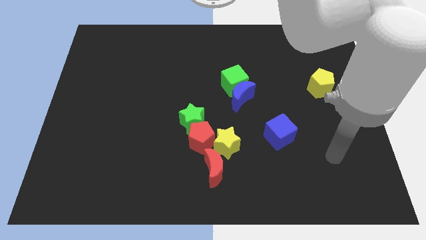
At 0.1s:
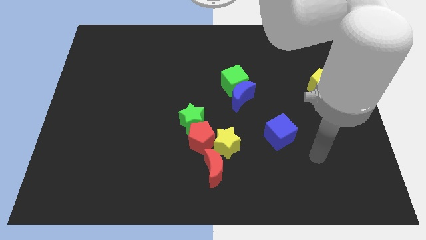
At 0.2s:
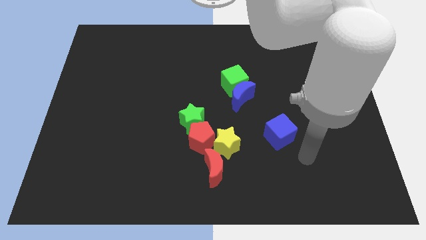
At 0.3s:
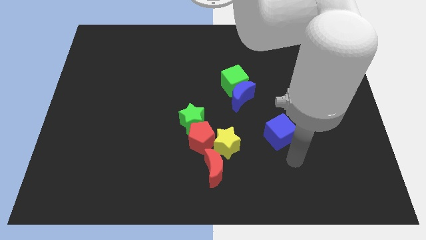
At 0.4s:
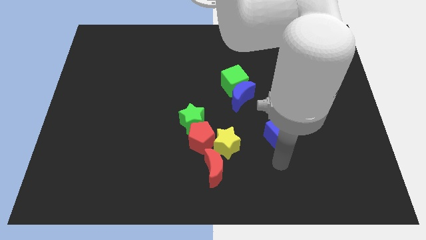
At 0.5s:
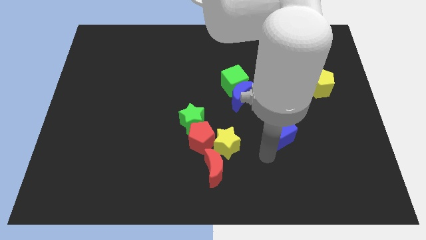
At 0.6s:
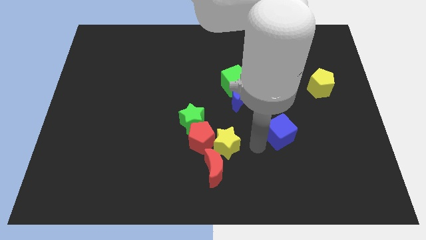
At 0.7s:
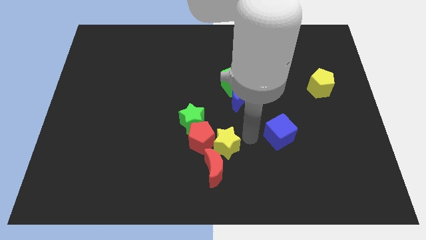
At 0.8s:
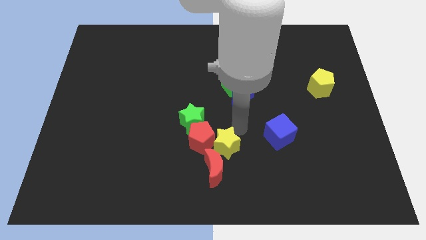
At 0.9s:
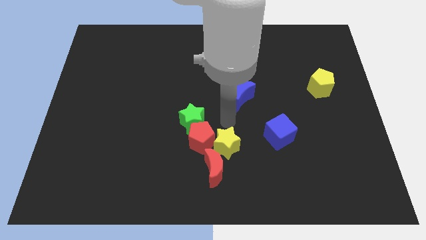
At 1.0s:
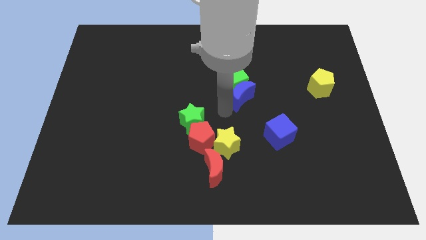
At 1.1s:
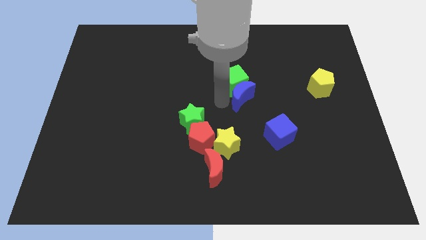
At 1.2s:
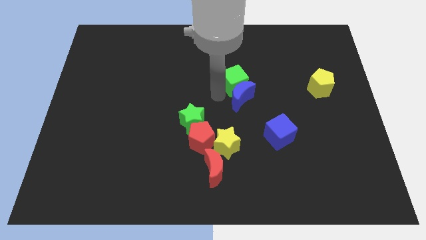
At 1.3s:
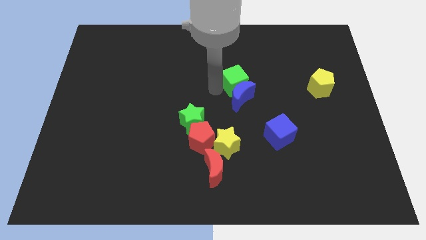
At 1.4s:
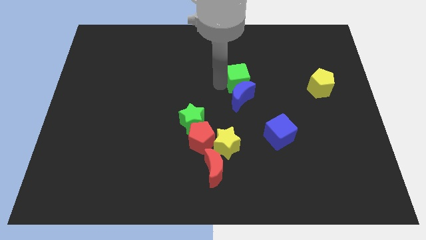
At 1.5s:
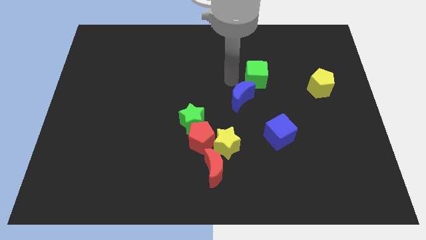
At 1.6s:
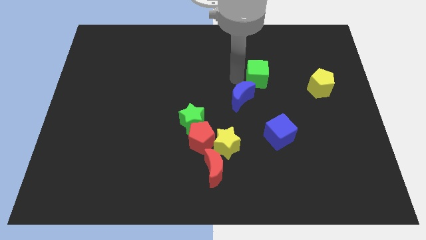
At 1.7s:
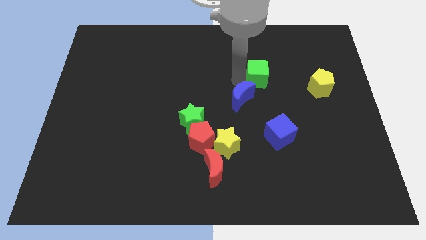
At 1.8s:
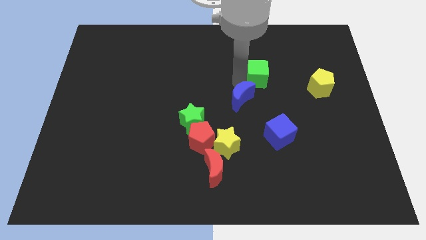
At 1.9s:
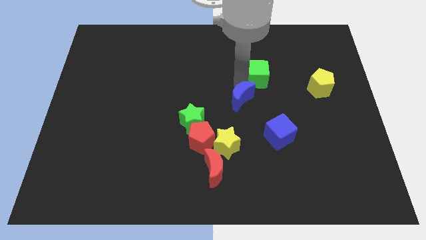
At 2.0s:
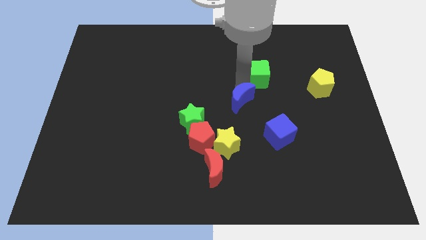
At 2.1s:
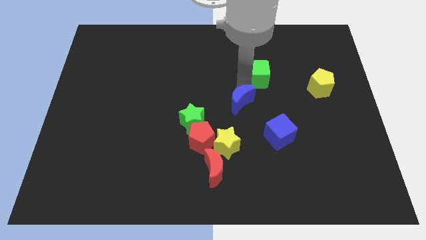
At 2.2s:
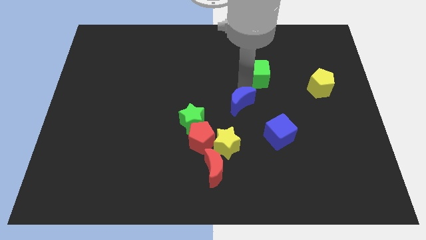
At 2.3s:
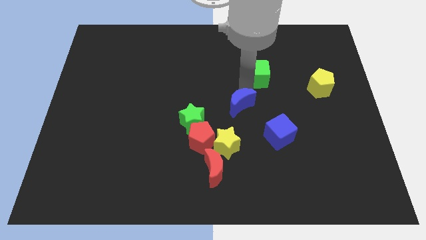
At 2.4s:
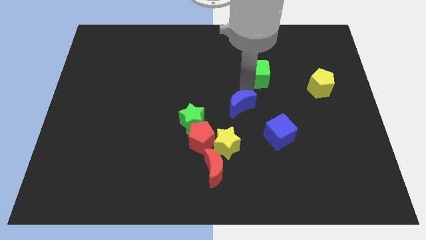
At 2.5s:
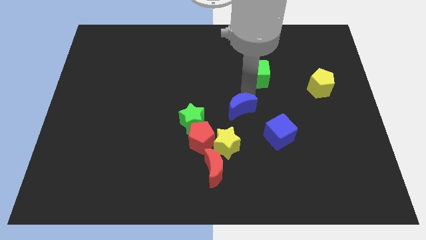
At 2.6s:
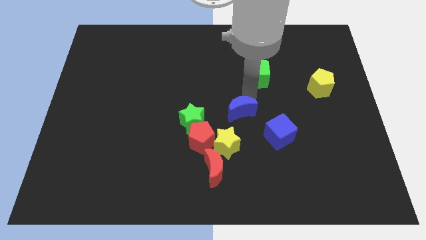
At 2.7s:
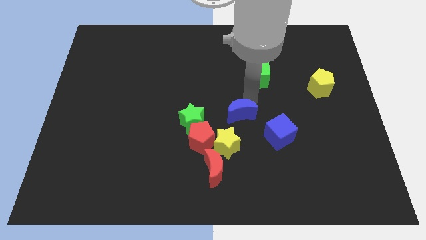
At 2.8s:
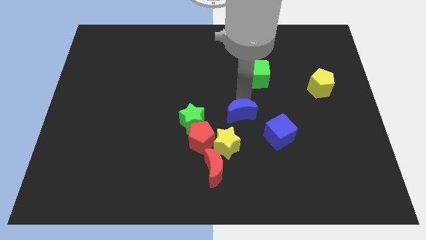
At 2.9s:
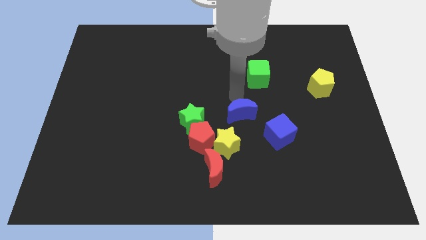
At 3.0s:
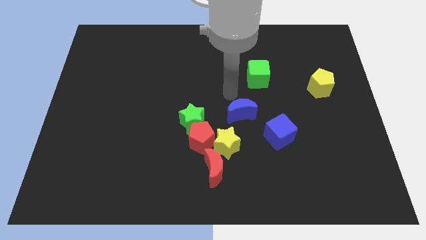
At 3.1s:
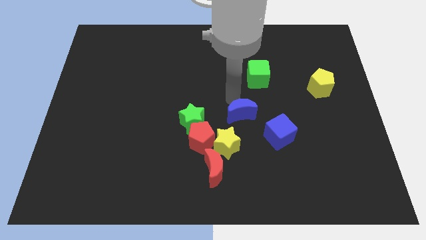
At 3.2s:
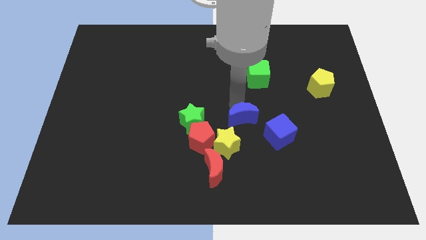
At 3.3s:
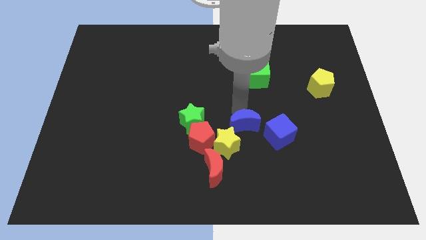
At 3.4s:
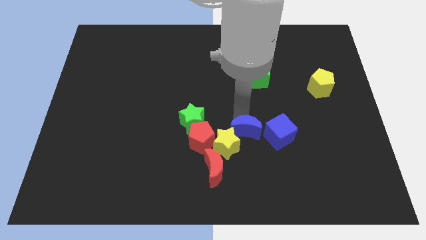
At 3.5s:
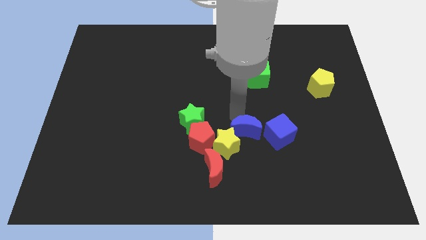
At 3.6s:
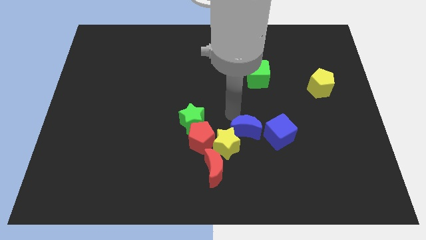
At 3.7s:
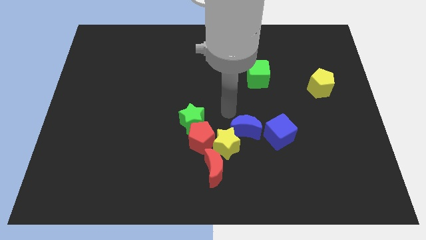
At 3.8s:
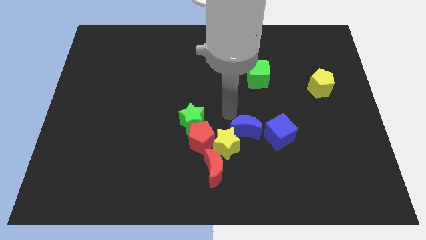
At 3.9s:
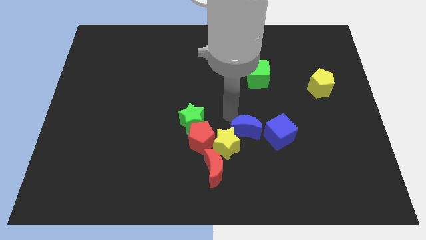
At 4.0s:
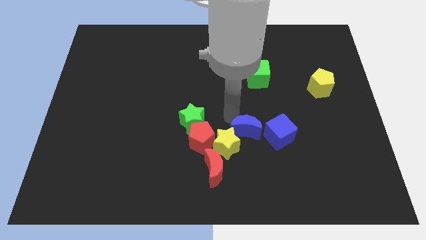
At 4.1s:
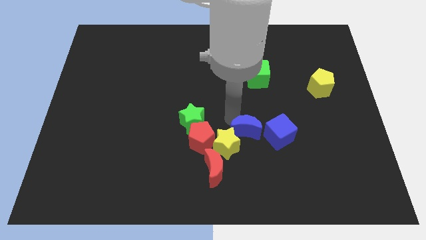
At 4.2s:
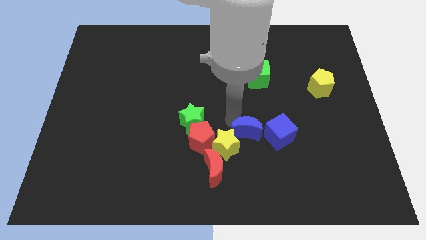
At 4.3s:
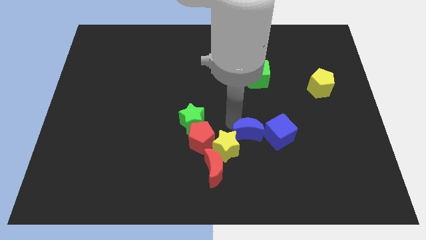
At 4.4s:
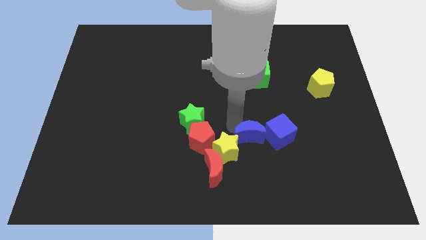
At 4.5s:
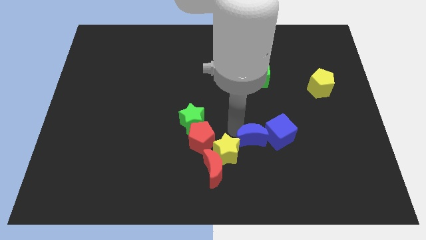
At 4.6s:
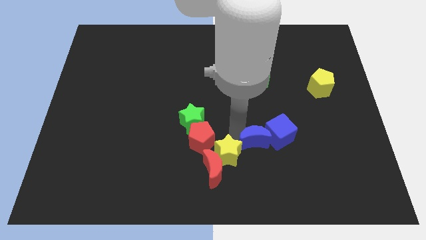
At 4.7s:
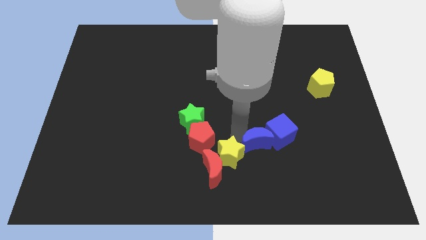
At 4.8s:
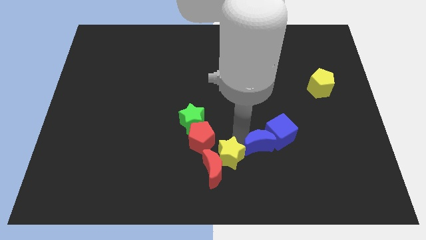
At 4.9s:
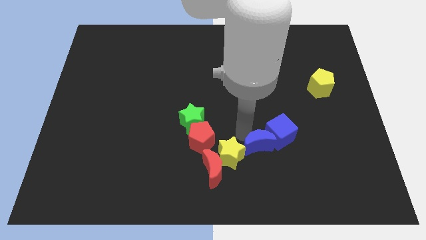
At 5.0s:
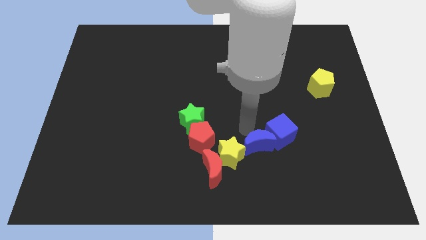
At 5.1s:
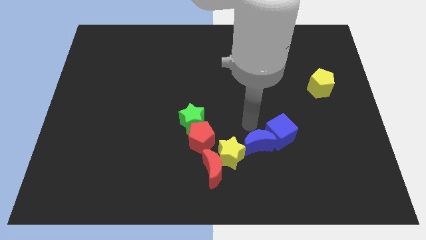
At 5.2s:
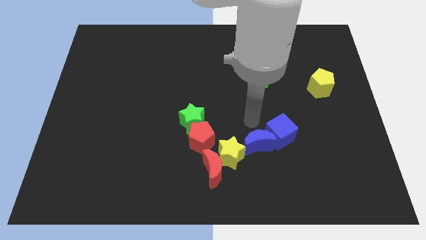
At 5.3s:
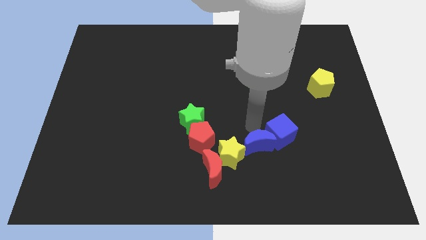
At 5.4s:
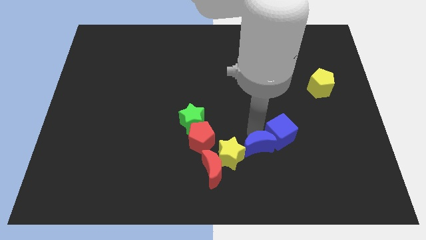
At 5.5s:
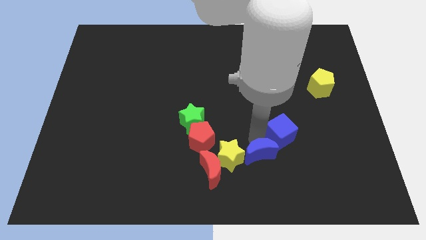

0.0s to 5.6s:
put the blue moon right of the red moon

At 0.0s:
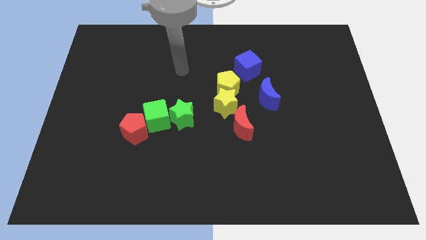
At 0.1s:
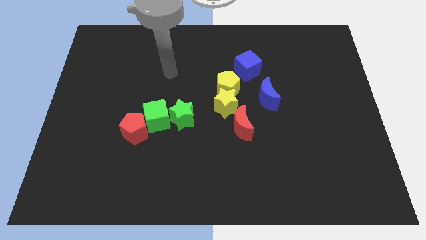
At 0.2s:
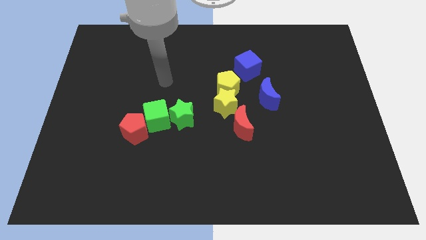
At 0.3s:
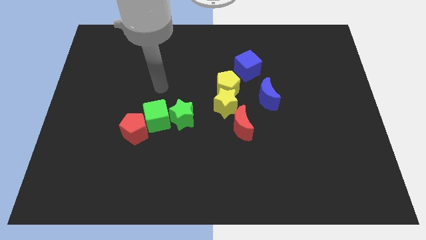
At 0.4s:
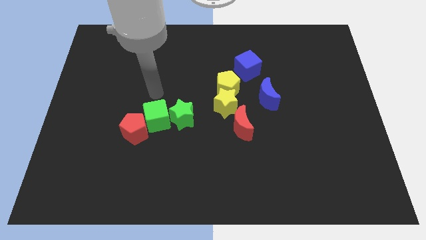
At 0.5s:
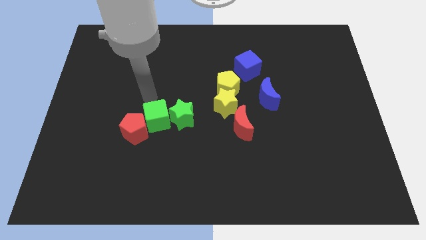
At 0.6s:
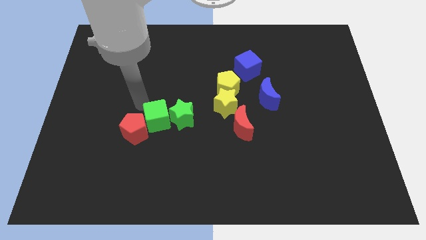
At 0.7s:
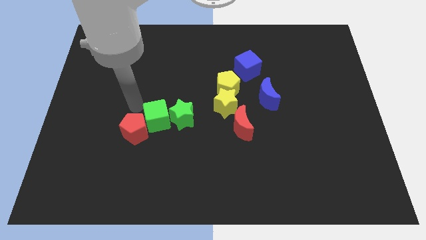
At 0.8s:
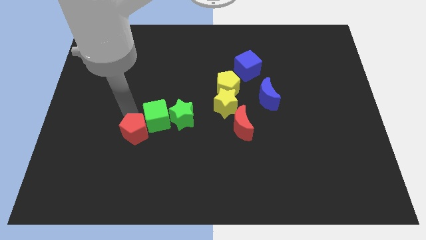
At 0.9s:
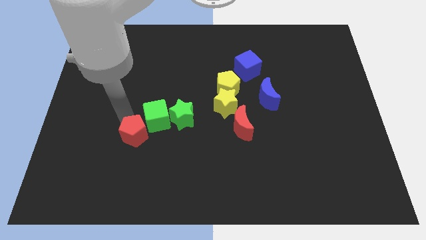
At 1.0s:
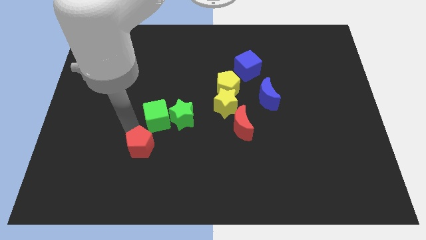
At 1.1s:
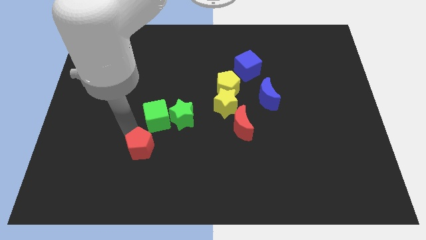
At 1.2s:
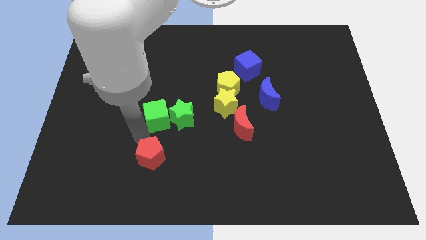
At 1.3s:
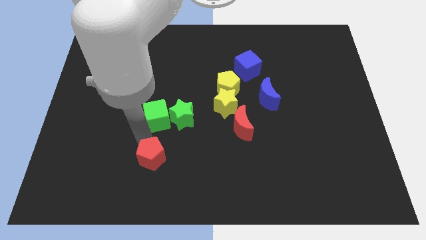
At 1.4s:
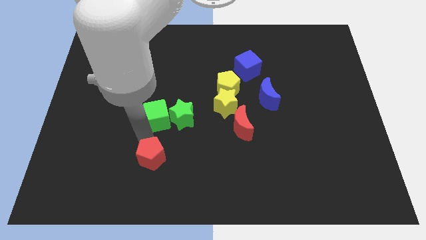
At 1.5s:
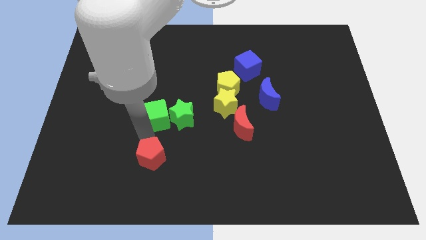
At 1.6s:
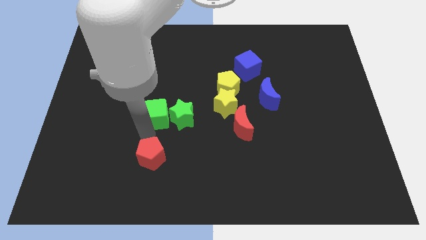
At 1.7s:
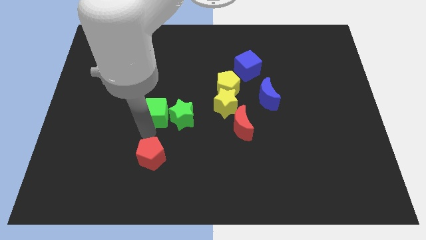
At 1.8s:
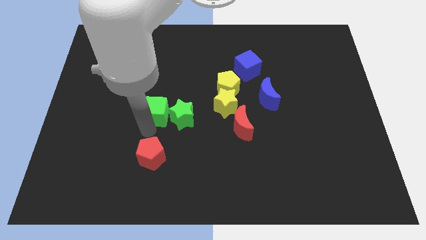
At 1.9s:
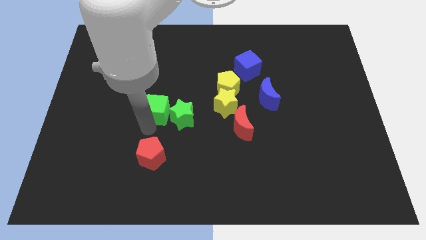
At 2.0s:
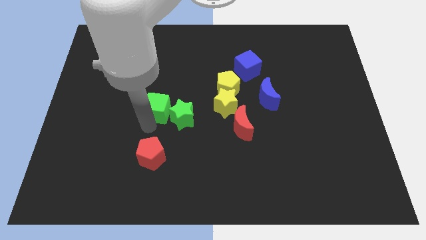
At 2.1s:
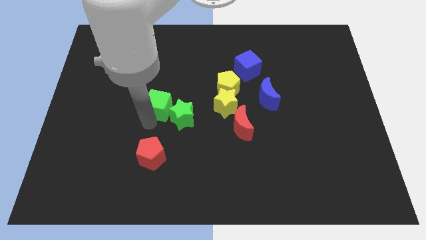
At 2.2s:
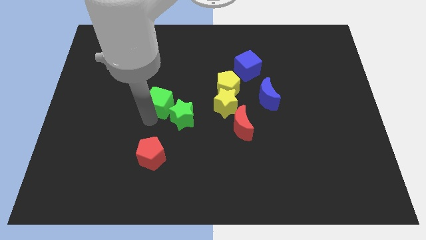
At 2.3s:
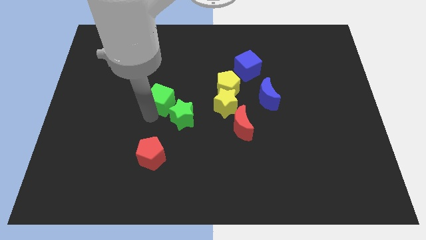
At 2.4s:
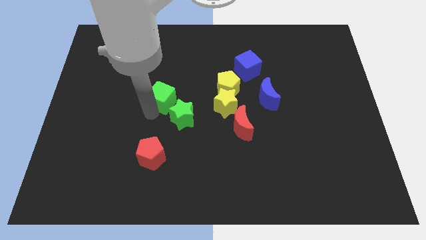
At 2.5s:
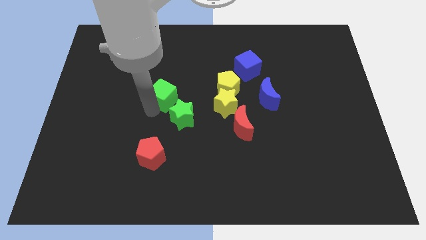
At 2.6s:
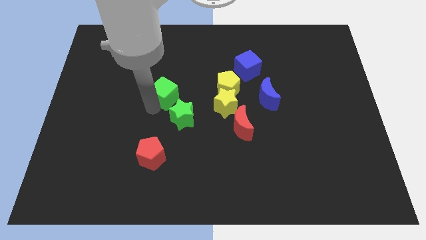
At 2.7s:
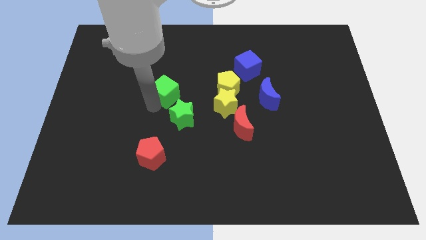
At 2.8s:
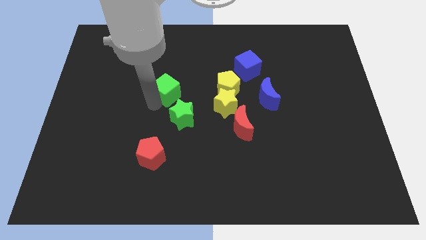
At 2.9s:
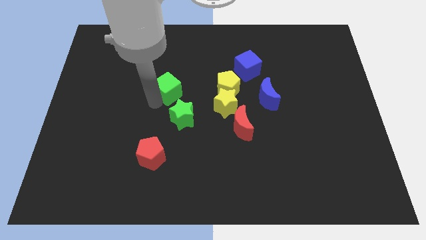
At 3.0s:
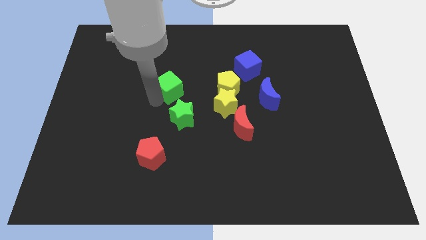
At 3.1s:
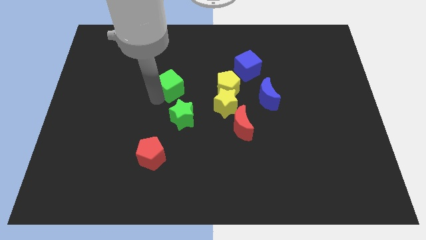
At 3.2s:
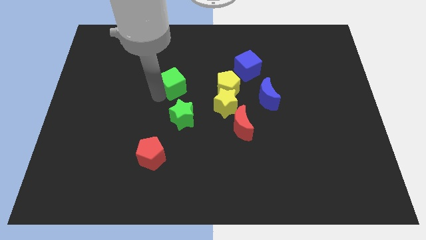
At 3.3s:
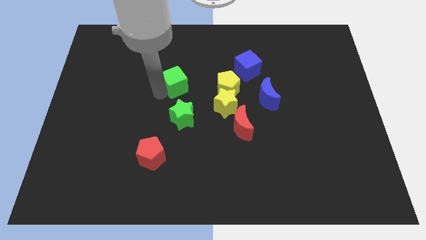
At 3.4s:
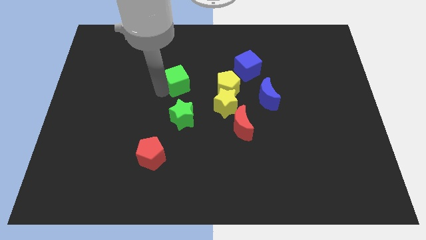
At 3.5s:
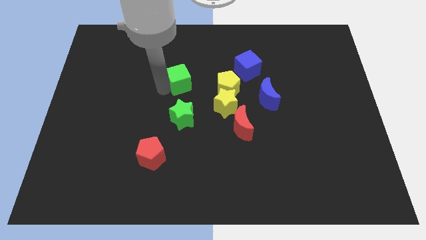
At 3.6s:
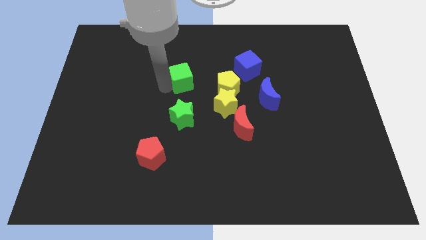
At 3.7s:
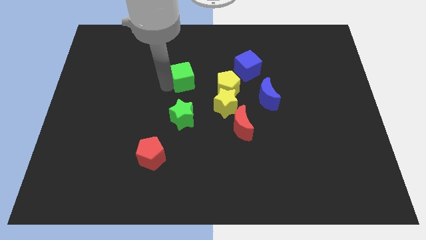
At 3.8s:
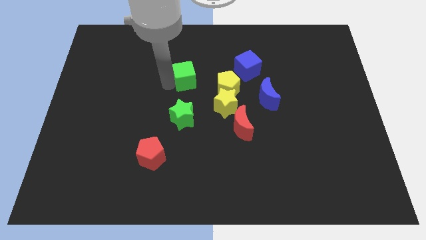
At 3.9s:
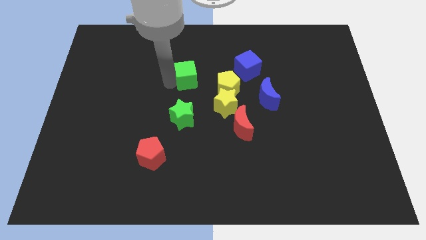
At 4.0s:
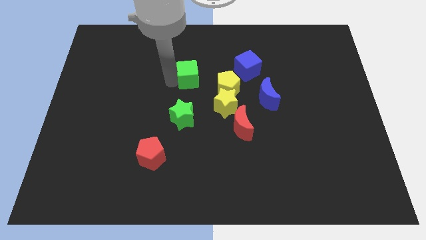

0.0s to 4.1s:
push the green cube left of the blue cube
